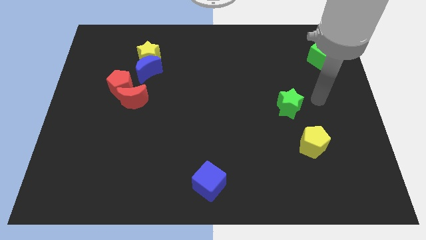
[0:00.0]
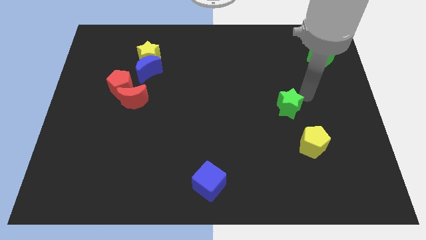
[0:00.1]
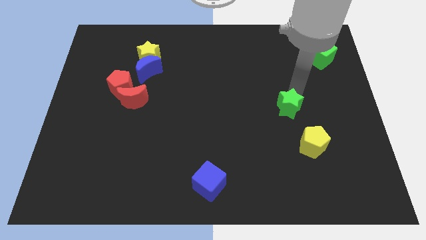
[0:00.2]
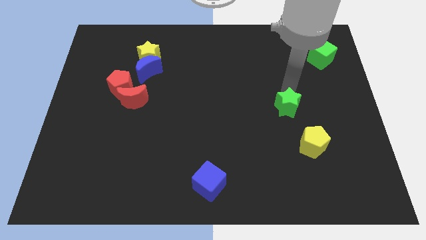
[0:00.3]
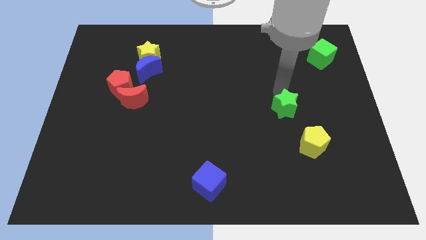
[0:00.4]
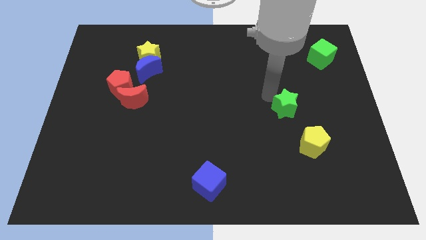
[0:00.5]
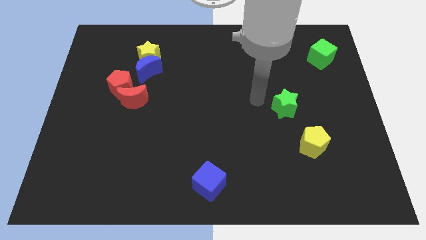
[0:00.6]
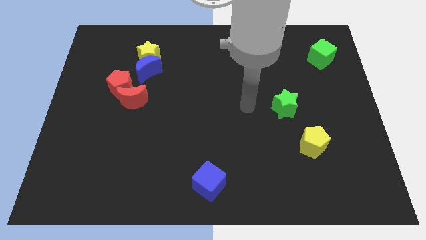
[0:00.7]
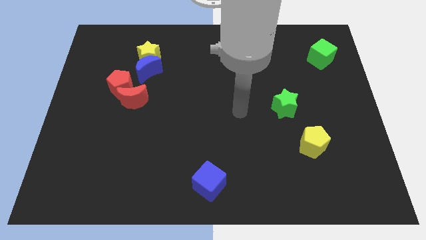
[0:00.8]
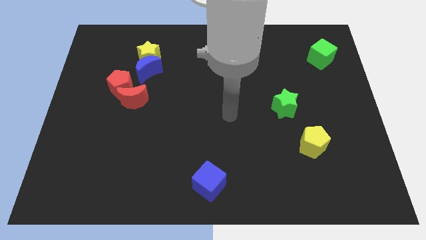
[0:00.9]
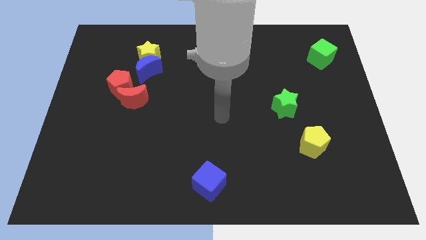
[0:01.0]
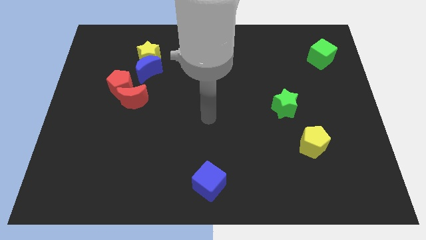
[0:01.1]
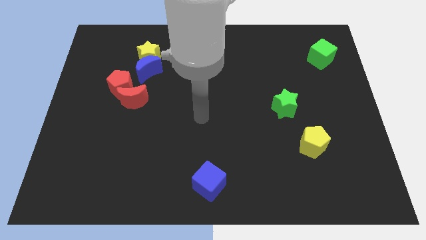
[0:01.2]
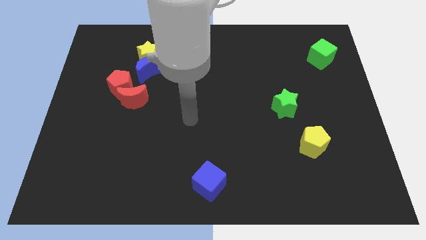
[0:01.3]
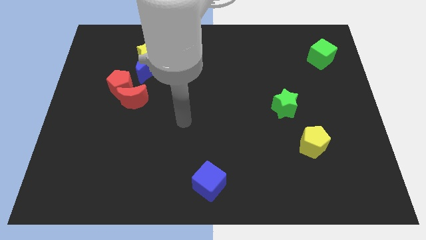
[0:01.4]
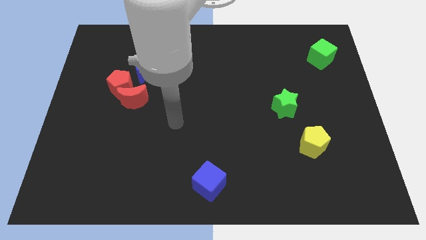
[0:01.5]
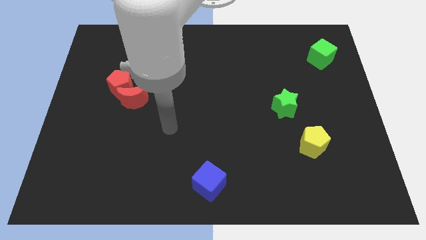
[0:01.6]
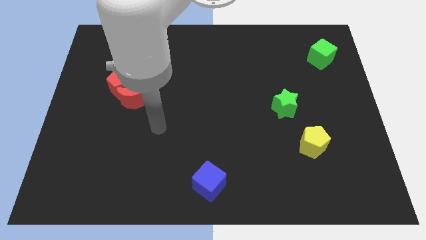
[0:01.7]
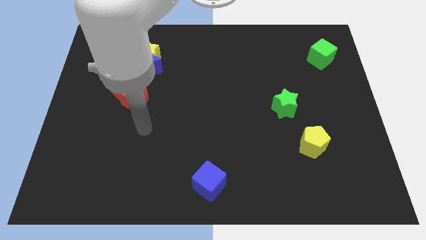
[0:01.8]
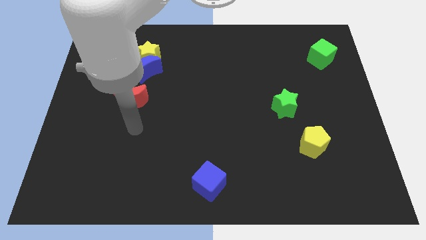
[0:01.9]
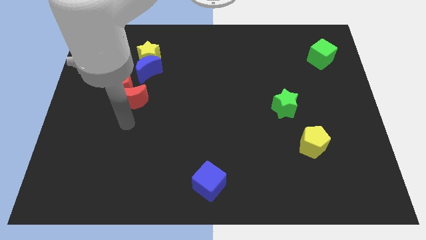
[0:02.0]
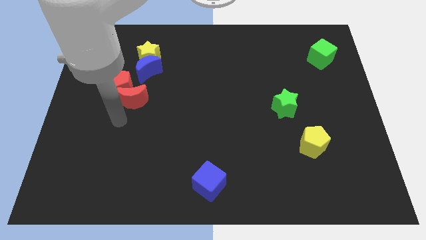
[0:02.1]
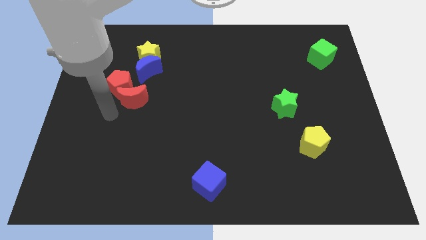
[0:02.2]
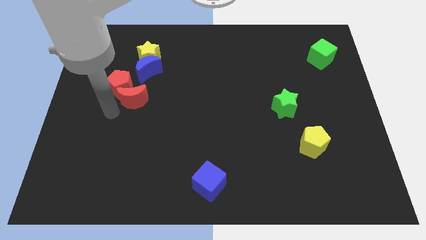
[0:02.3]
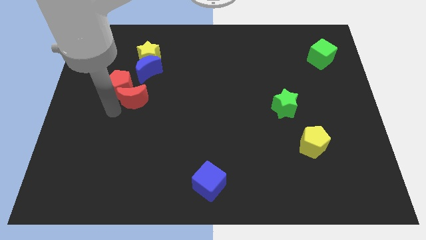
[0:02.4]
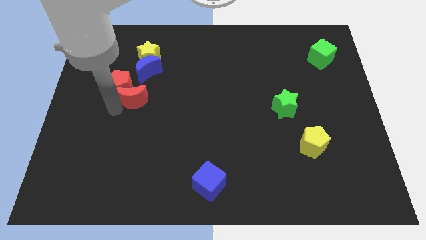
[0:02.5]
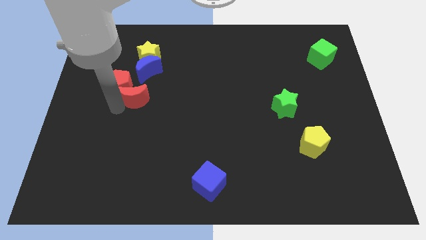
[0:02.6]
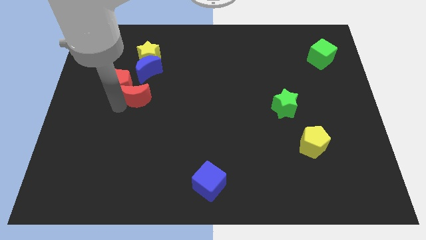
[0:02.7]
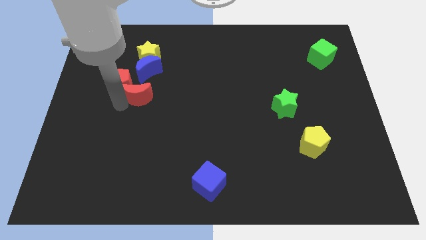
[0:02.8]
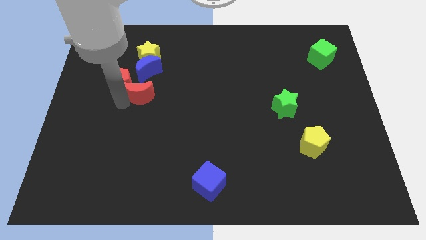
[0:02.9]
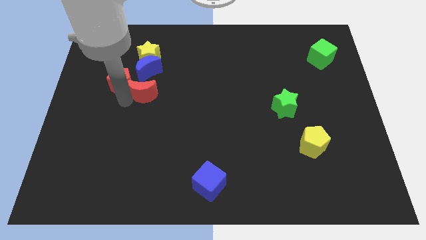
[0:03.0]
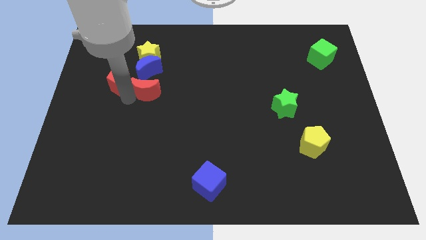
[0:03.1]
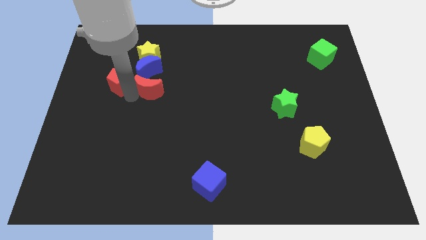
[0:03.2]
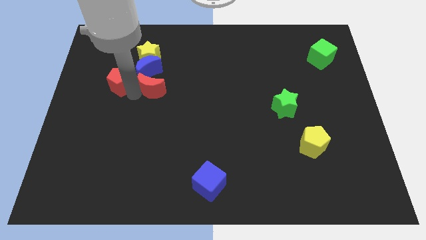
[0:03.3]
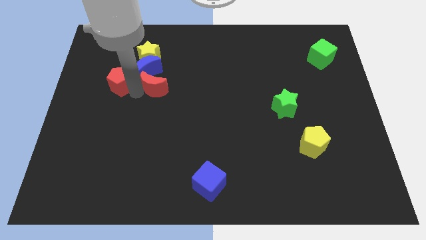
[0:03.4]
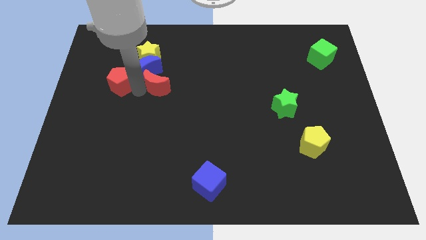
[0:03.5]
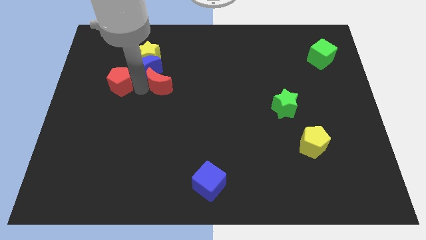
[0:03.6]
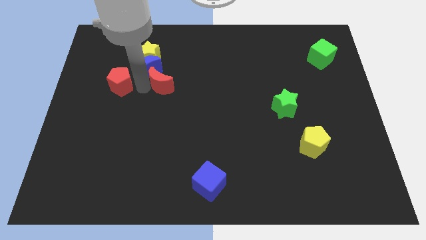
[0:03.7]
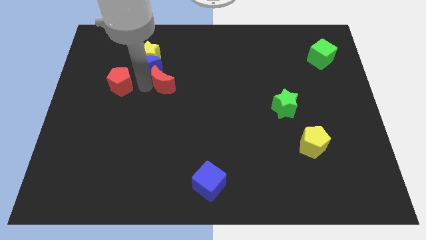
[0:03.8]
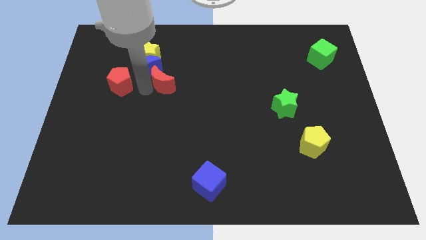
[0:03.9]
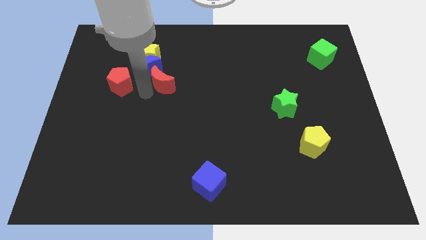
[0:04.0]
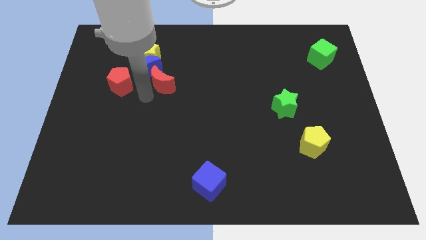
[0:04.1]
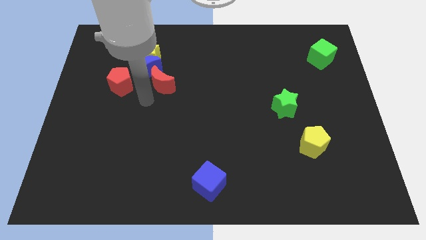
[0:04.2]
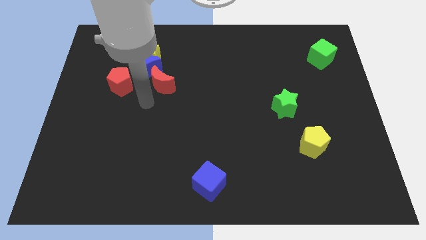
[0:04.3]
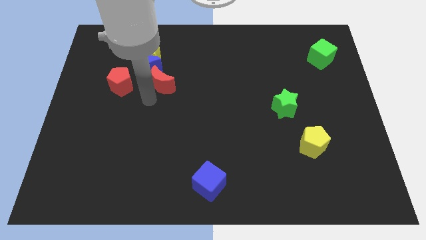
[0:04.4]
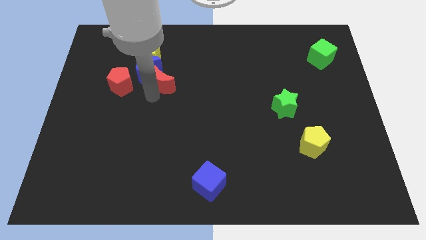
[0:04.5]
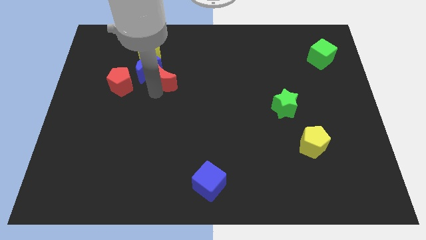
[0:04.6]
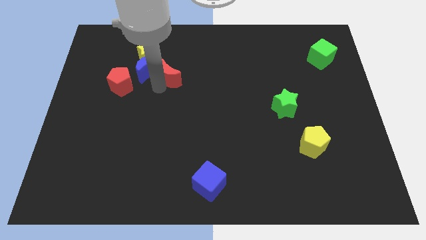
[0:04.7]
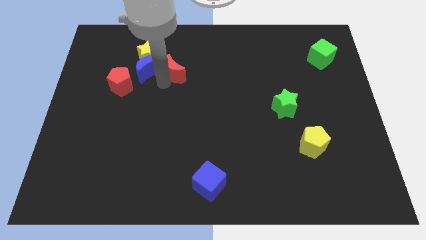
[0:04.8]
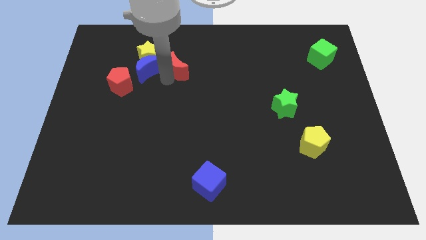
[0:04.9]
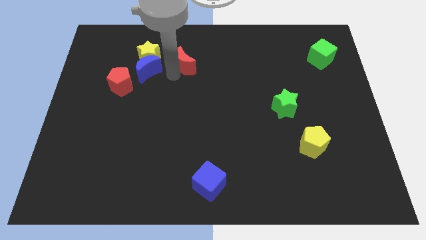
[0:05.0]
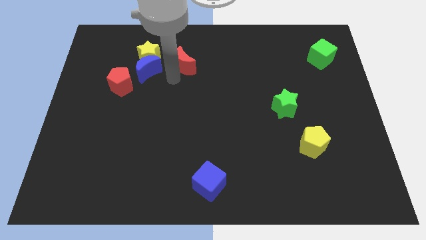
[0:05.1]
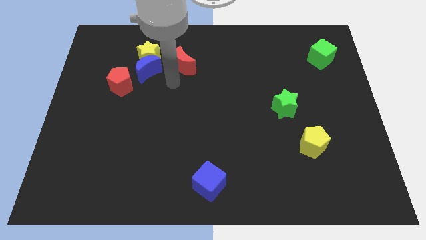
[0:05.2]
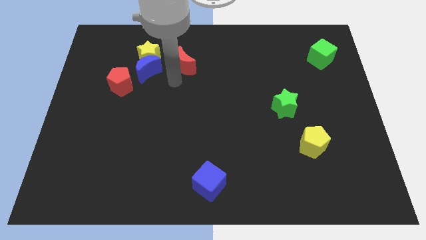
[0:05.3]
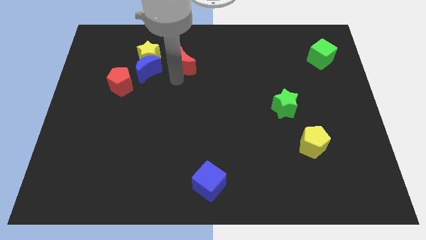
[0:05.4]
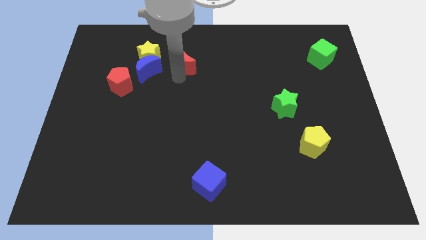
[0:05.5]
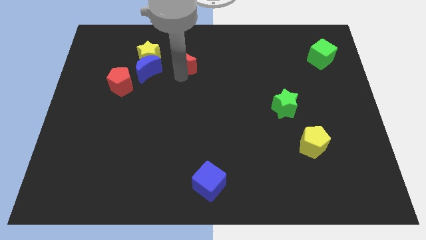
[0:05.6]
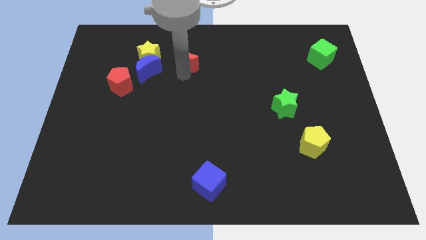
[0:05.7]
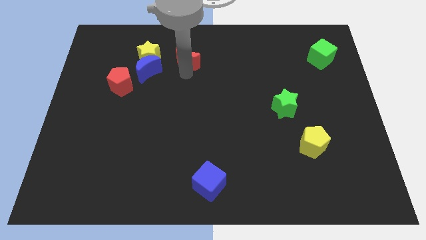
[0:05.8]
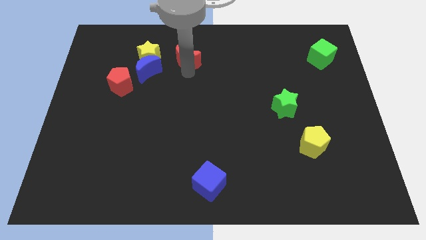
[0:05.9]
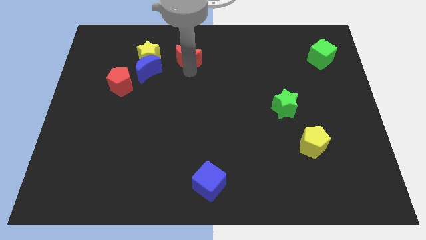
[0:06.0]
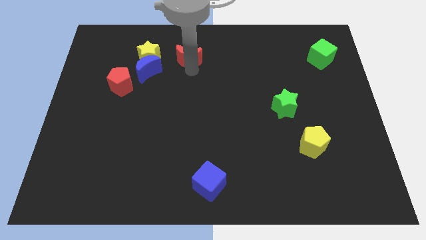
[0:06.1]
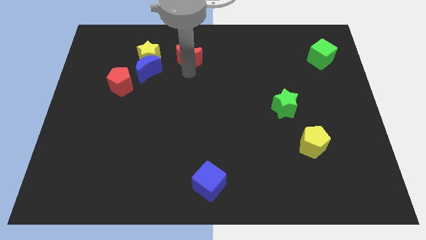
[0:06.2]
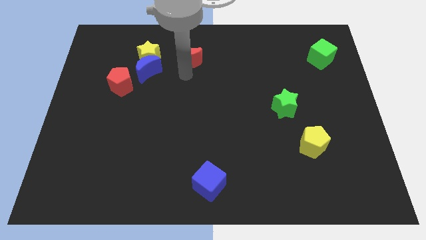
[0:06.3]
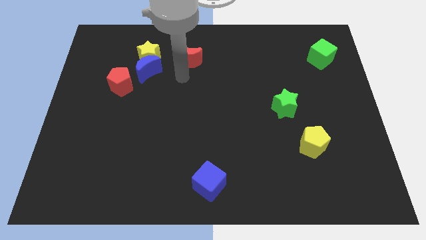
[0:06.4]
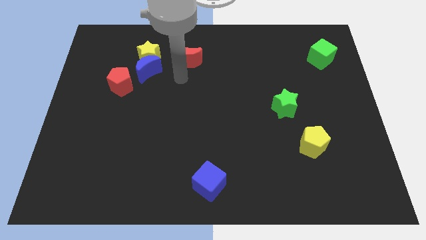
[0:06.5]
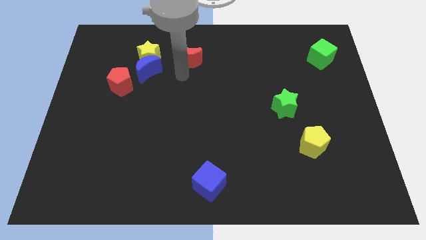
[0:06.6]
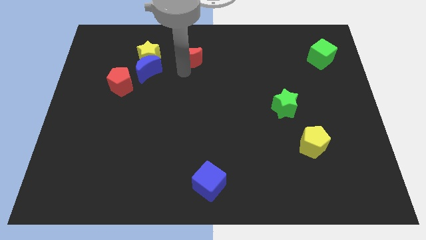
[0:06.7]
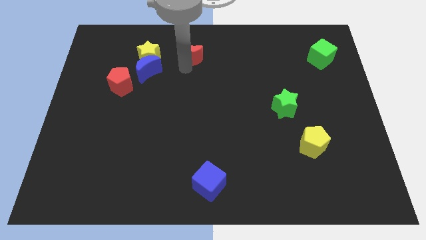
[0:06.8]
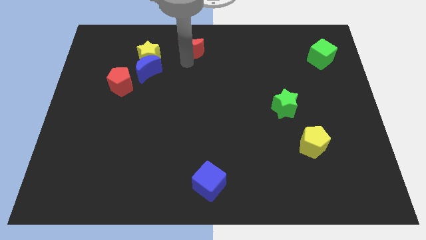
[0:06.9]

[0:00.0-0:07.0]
move the red moon to the top

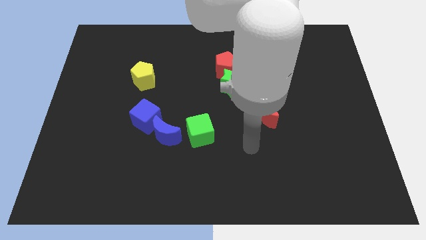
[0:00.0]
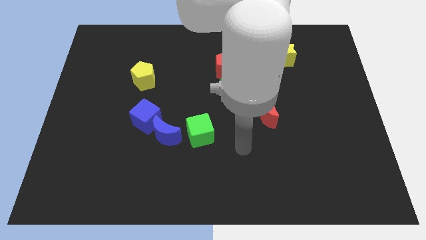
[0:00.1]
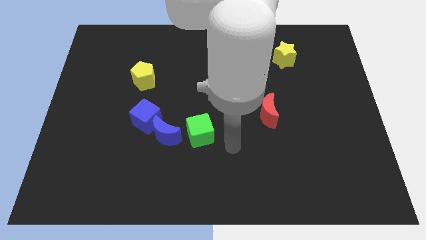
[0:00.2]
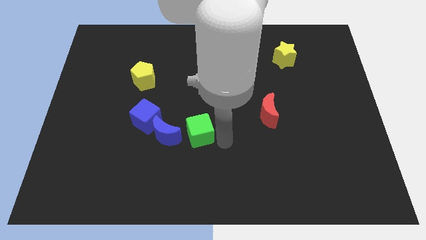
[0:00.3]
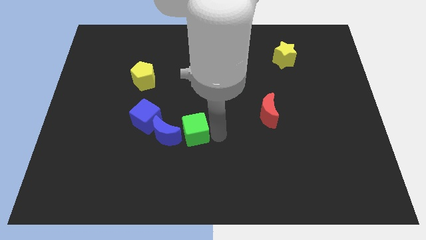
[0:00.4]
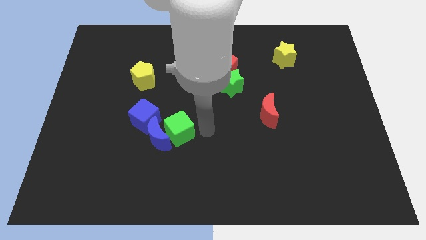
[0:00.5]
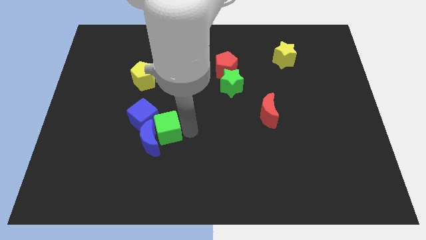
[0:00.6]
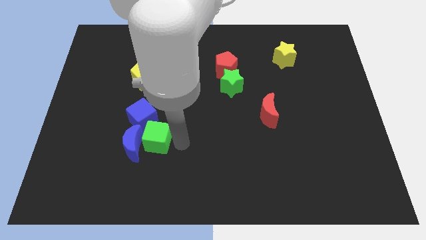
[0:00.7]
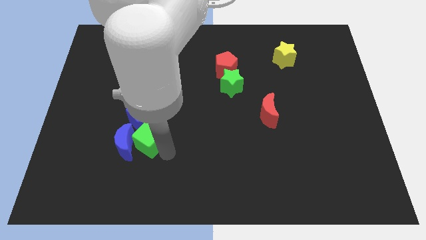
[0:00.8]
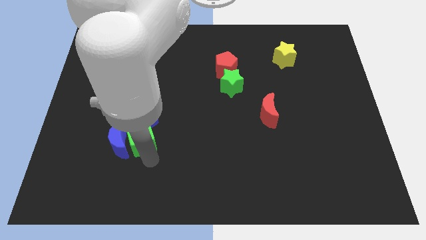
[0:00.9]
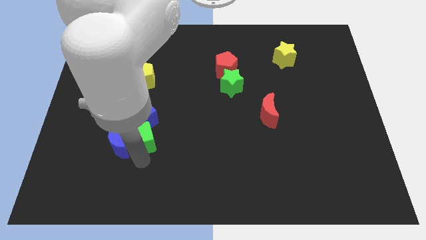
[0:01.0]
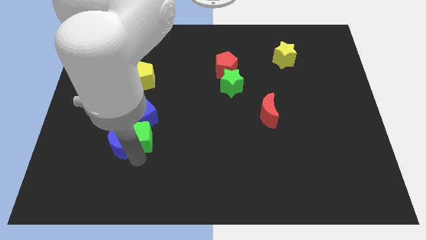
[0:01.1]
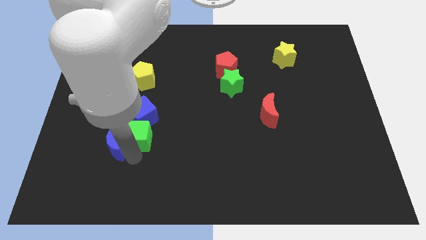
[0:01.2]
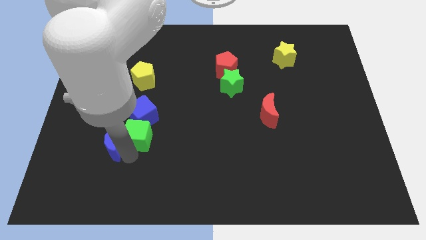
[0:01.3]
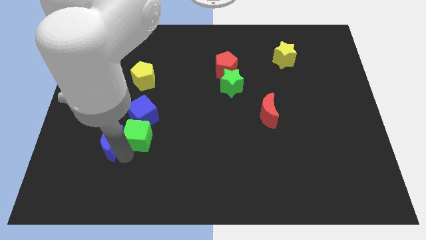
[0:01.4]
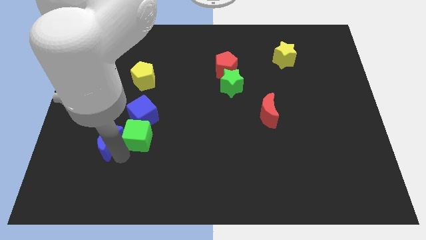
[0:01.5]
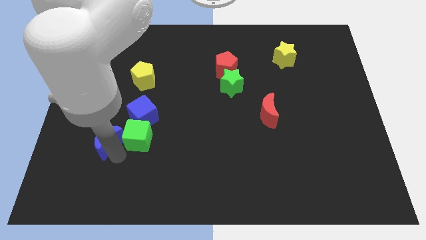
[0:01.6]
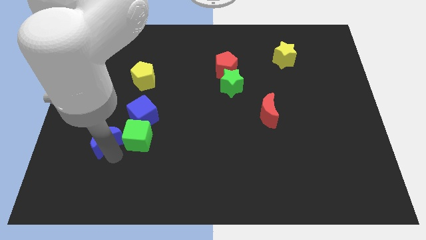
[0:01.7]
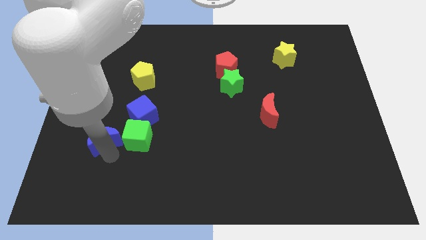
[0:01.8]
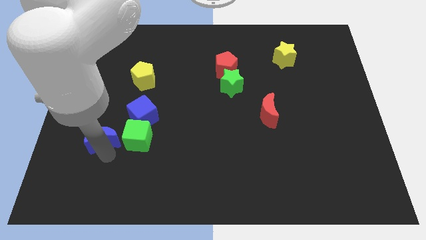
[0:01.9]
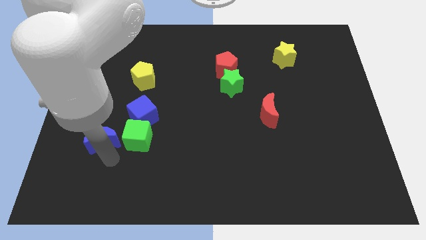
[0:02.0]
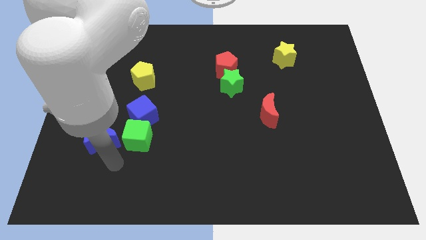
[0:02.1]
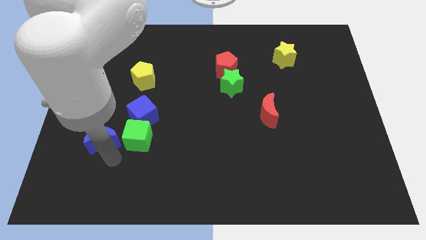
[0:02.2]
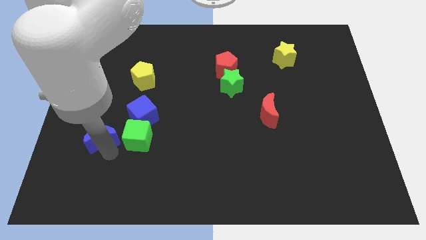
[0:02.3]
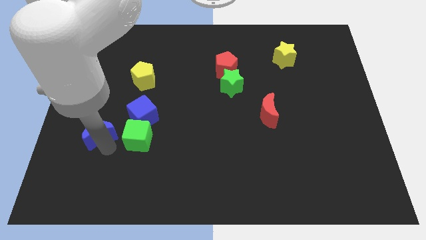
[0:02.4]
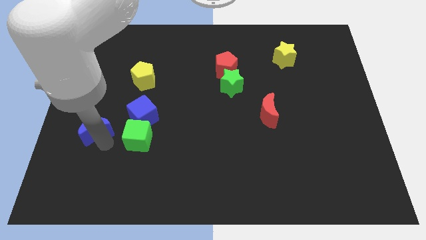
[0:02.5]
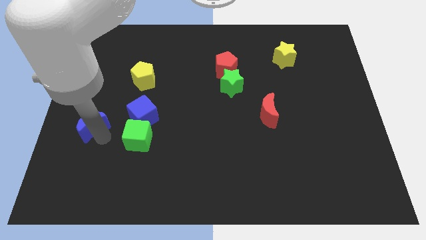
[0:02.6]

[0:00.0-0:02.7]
move the blue moon to the left side of the board
